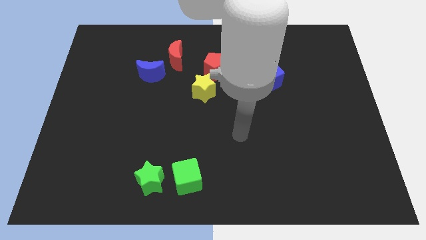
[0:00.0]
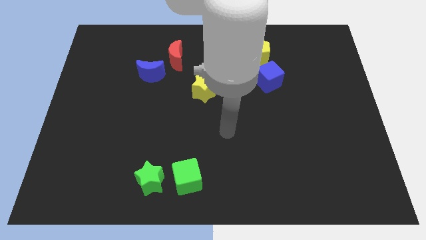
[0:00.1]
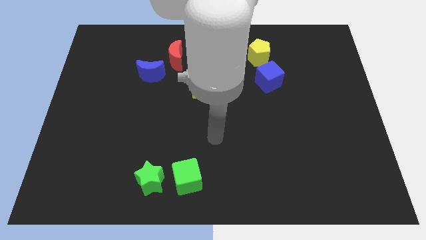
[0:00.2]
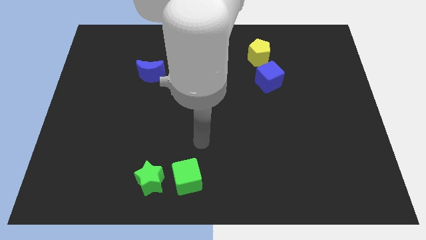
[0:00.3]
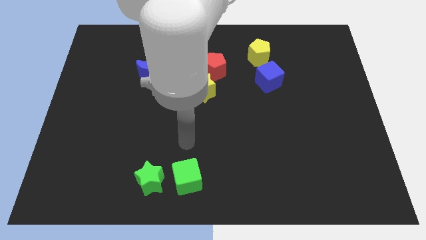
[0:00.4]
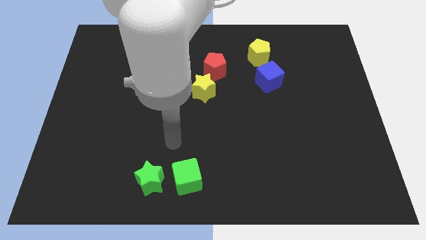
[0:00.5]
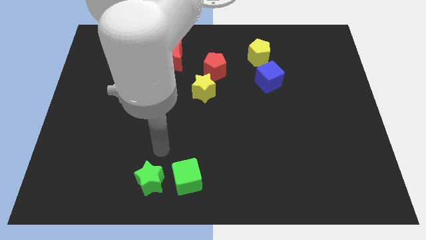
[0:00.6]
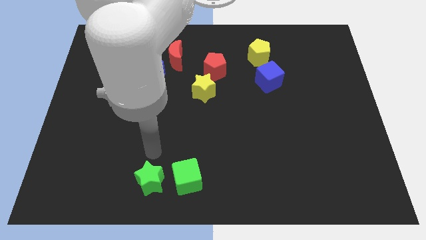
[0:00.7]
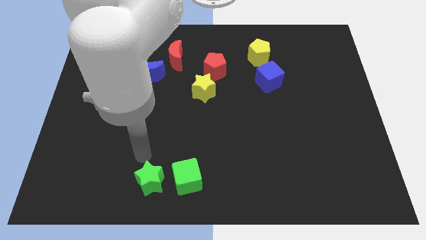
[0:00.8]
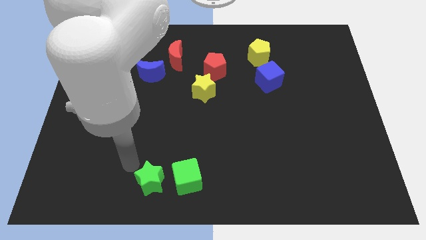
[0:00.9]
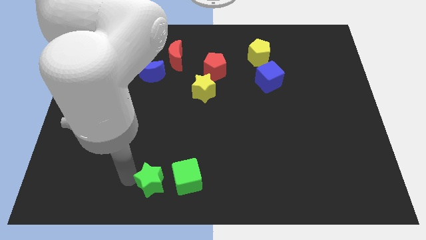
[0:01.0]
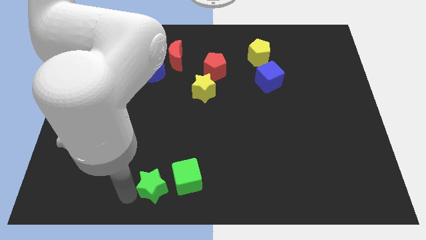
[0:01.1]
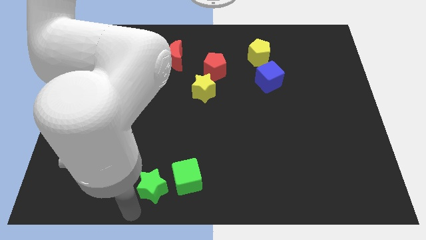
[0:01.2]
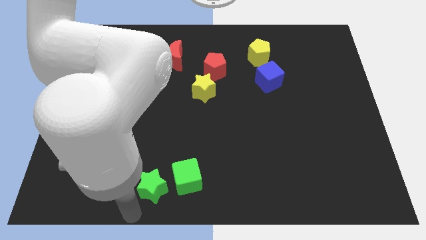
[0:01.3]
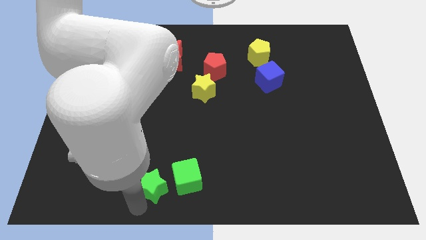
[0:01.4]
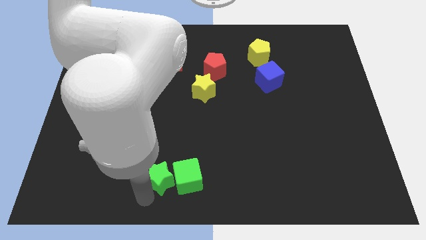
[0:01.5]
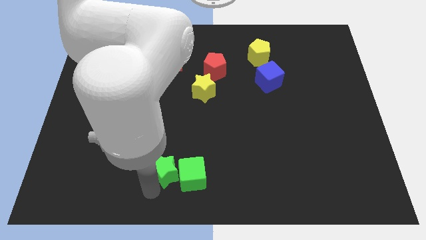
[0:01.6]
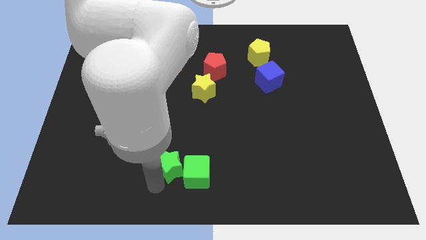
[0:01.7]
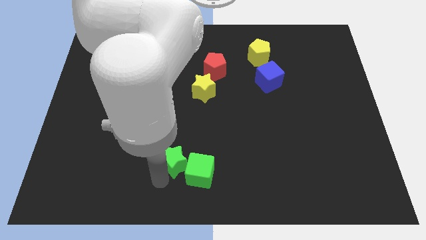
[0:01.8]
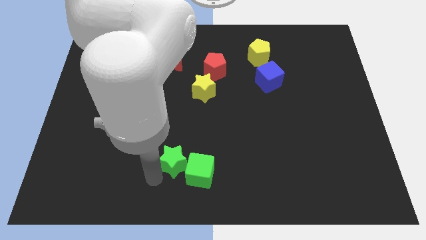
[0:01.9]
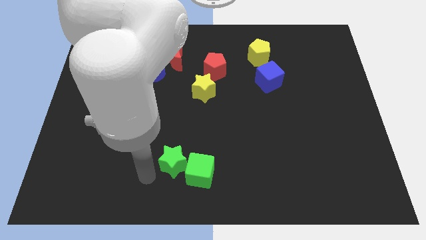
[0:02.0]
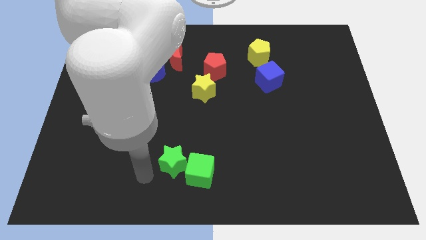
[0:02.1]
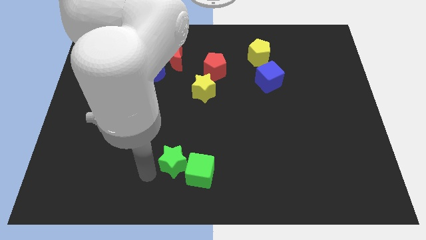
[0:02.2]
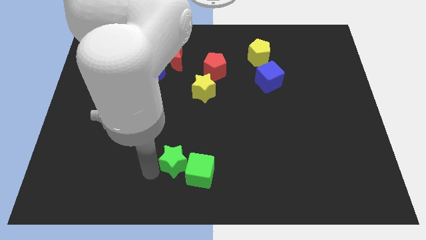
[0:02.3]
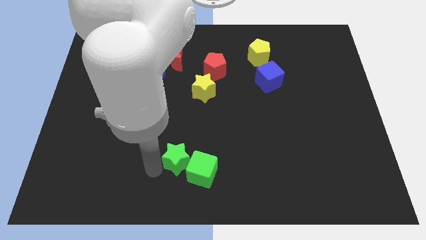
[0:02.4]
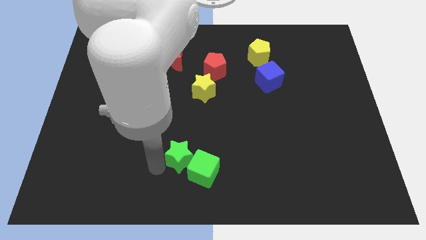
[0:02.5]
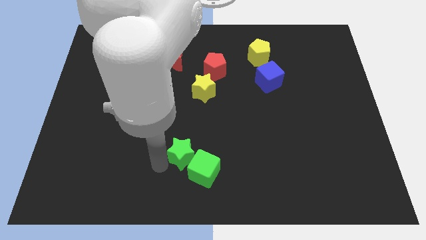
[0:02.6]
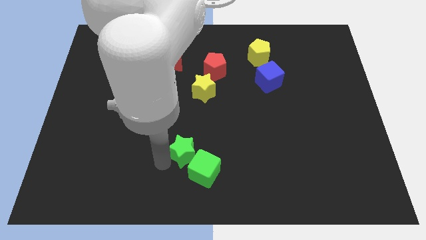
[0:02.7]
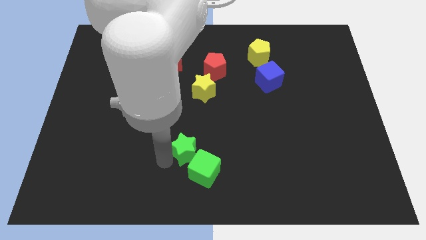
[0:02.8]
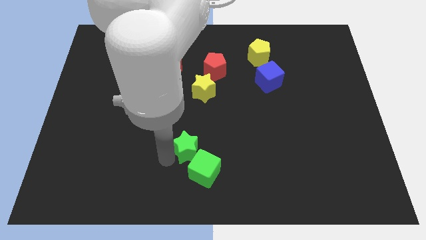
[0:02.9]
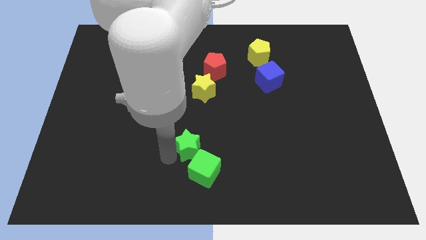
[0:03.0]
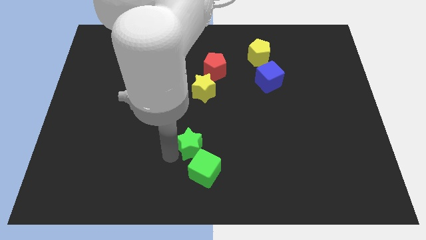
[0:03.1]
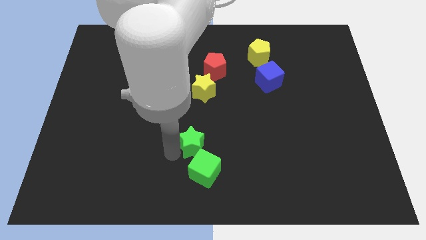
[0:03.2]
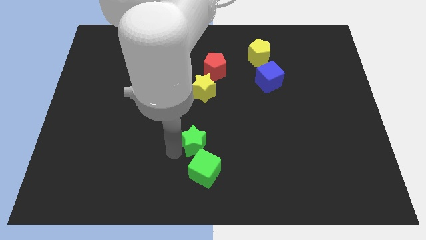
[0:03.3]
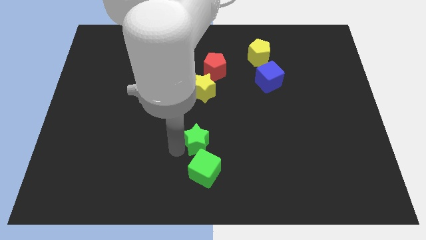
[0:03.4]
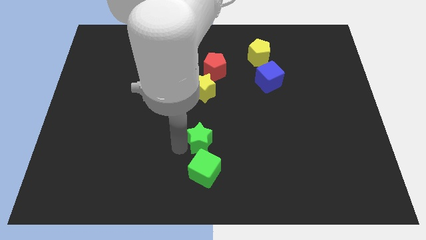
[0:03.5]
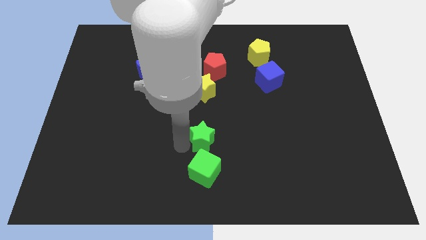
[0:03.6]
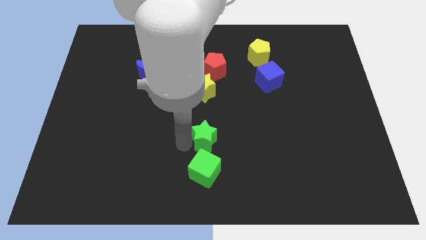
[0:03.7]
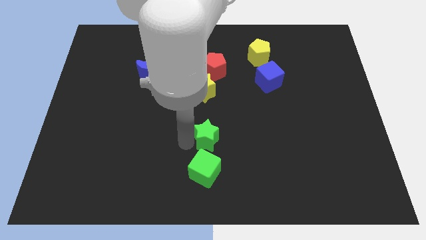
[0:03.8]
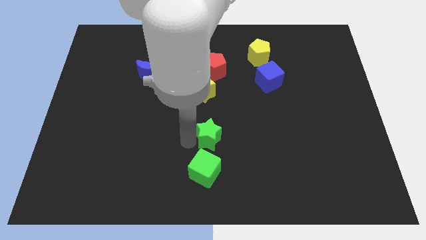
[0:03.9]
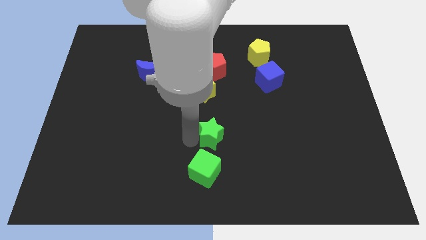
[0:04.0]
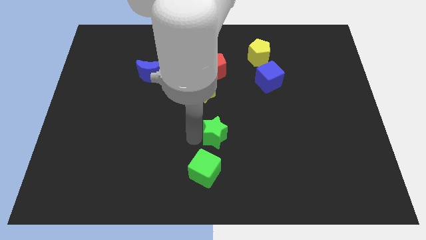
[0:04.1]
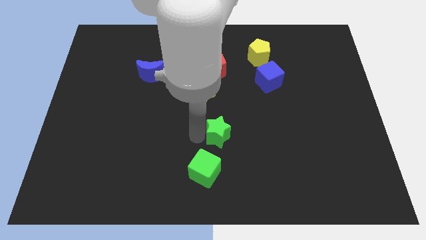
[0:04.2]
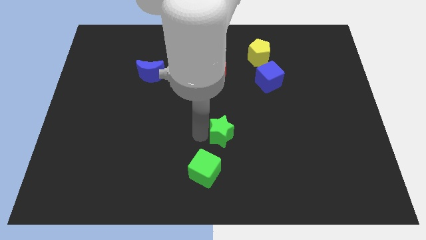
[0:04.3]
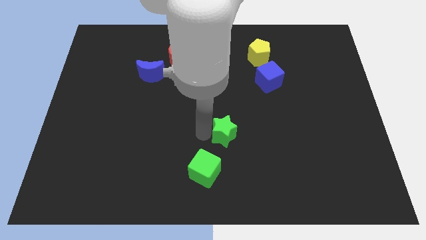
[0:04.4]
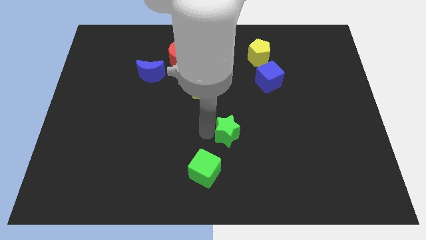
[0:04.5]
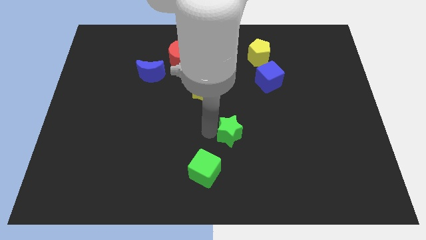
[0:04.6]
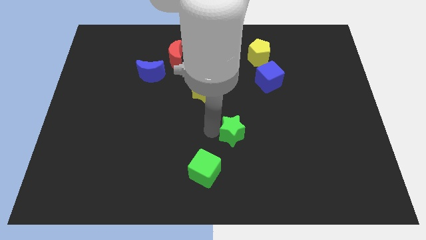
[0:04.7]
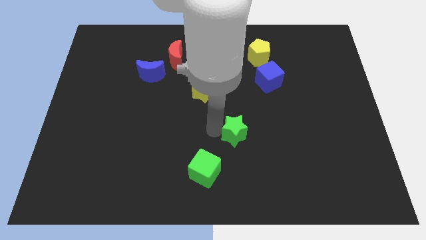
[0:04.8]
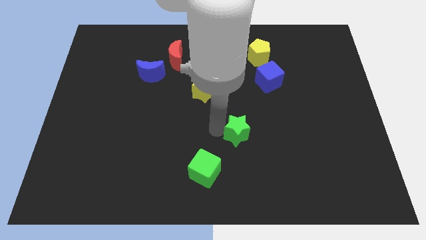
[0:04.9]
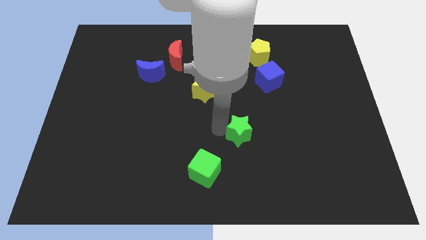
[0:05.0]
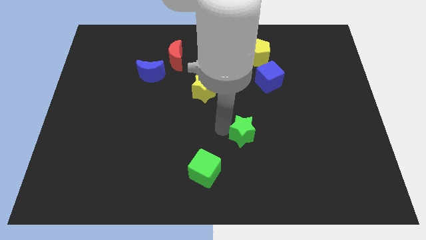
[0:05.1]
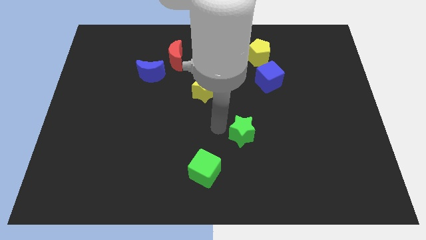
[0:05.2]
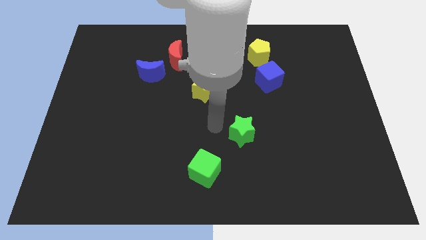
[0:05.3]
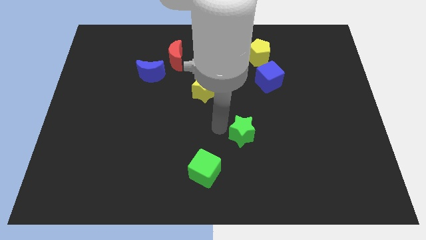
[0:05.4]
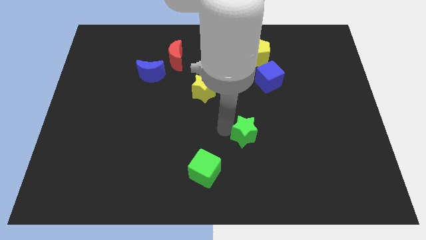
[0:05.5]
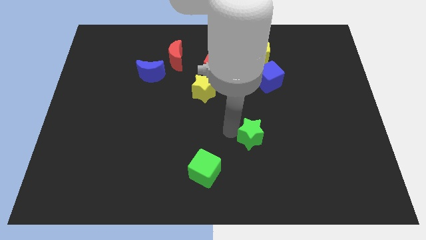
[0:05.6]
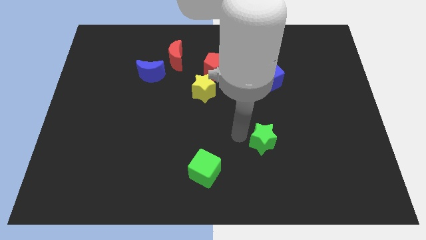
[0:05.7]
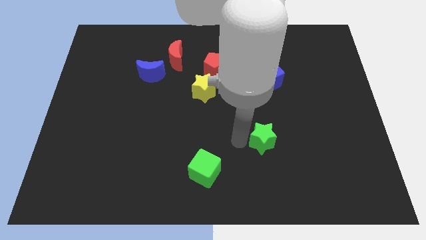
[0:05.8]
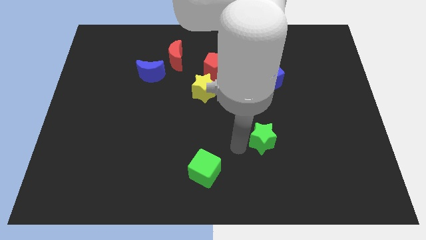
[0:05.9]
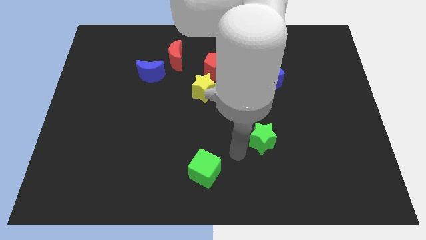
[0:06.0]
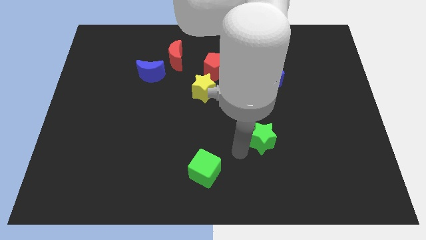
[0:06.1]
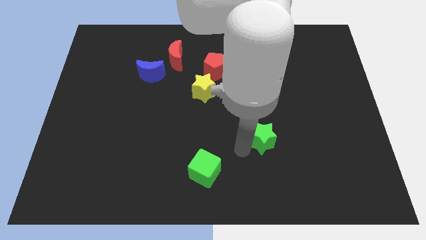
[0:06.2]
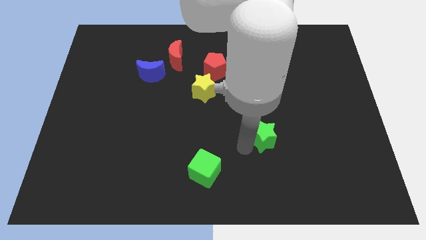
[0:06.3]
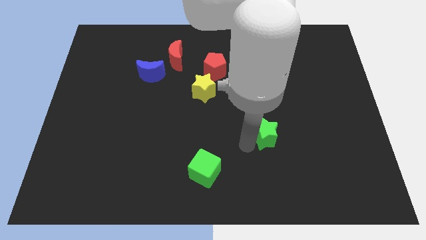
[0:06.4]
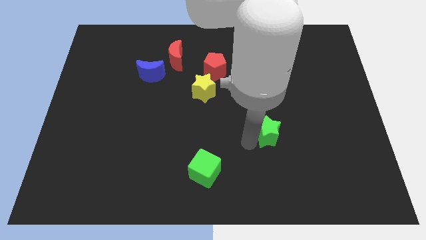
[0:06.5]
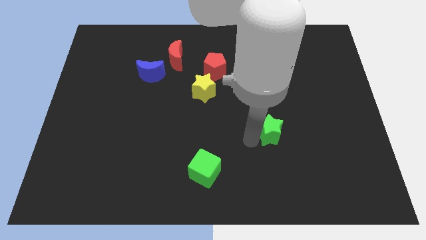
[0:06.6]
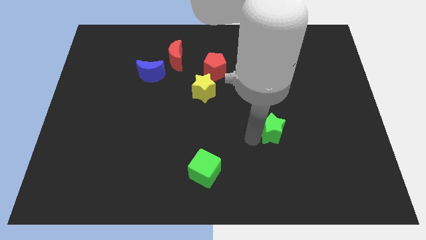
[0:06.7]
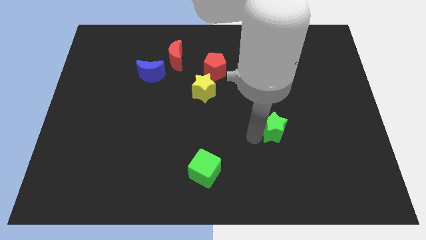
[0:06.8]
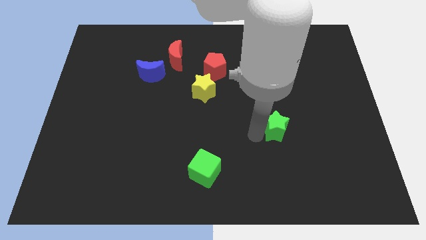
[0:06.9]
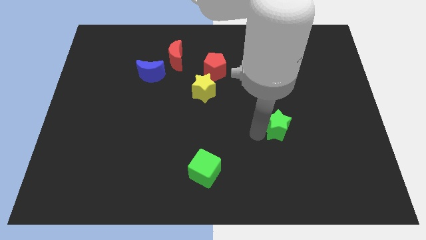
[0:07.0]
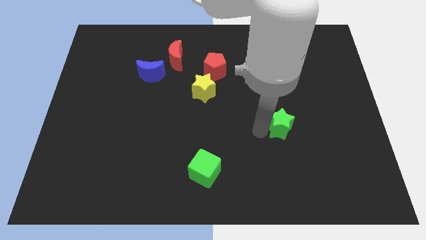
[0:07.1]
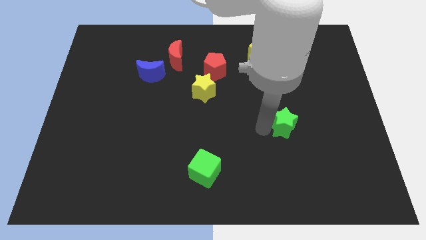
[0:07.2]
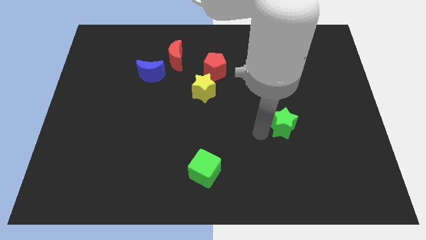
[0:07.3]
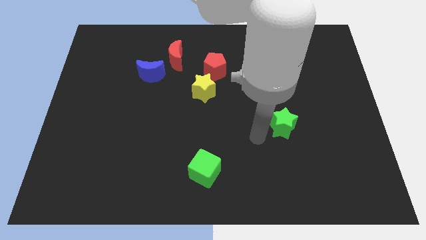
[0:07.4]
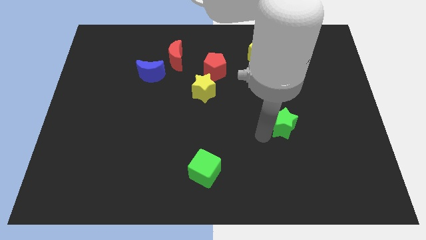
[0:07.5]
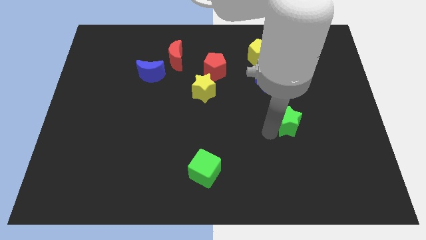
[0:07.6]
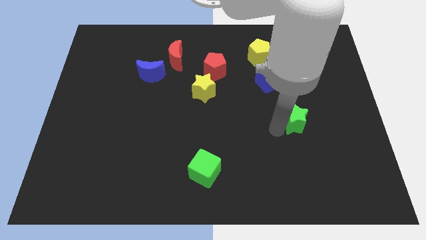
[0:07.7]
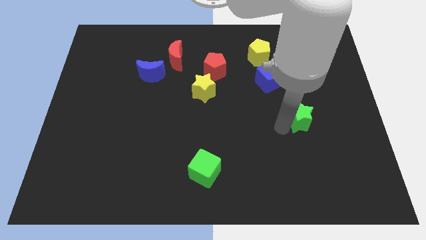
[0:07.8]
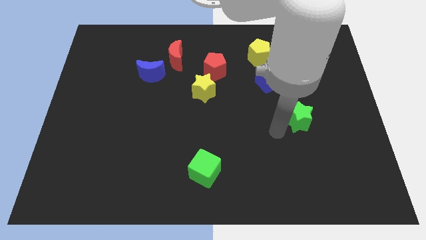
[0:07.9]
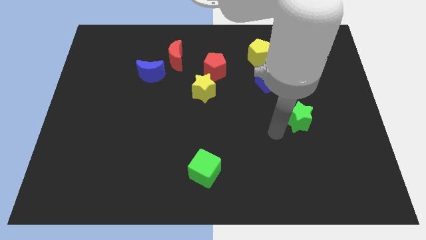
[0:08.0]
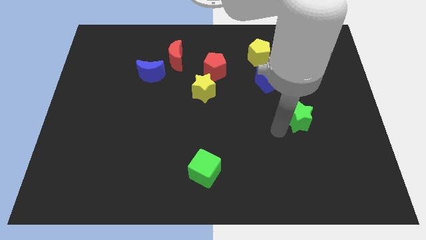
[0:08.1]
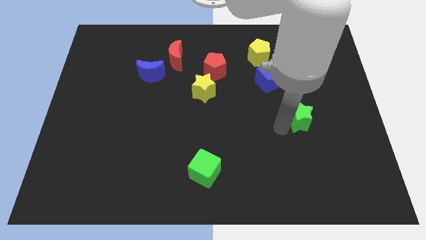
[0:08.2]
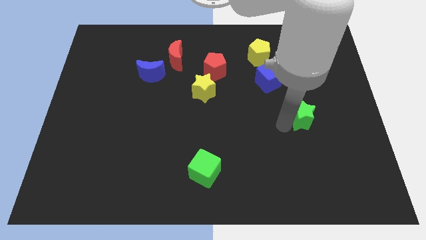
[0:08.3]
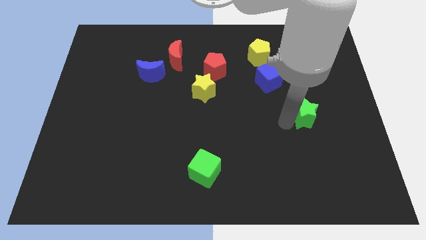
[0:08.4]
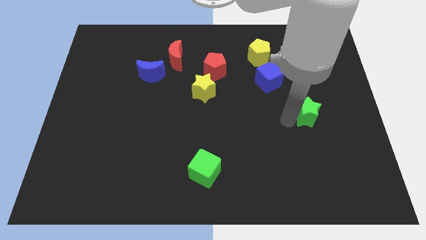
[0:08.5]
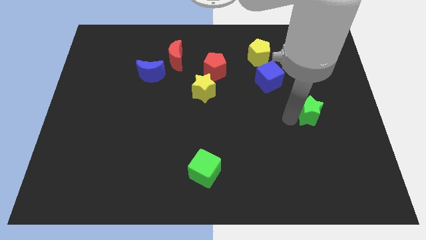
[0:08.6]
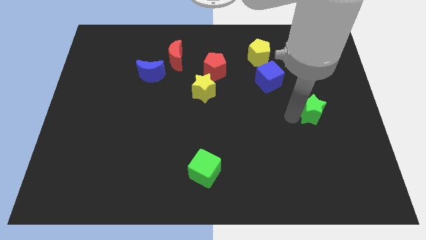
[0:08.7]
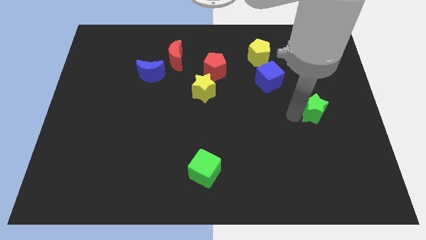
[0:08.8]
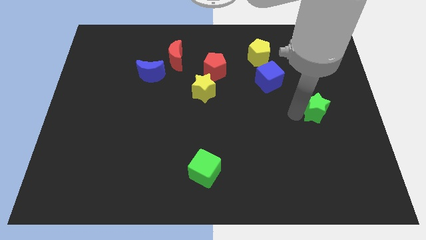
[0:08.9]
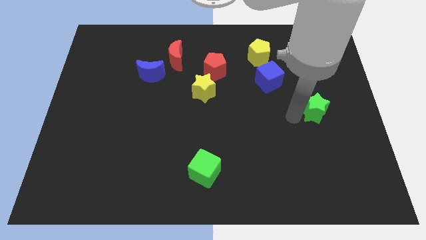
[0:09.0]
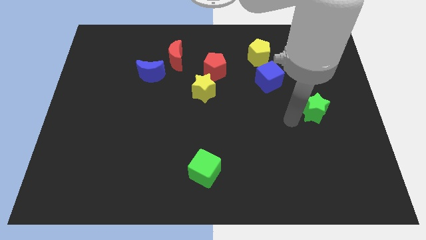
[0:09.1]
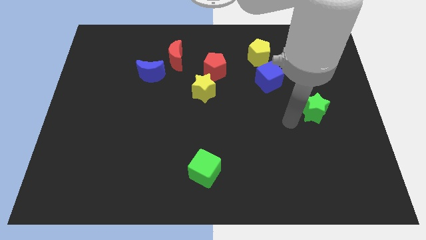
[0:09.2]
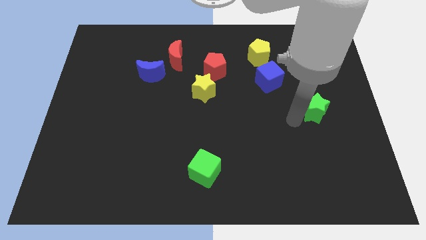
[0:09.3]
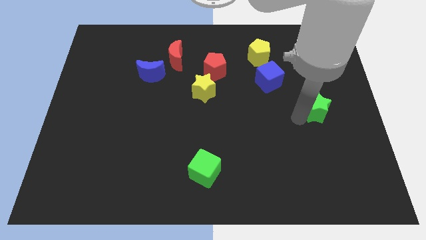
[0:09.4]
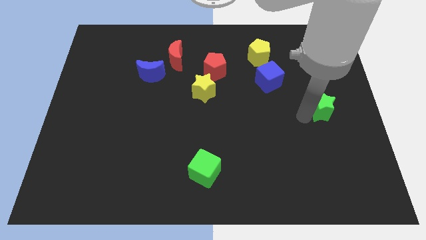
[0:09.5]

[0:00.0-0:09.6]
push the green star to the center right
